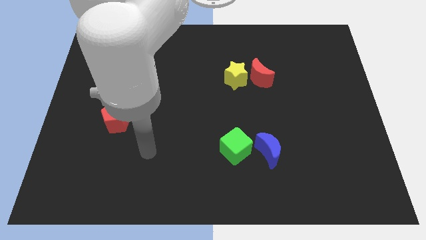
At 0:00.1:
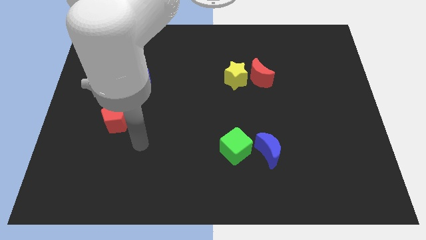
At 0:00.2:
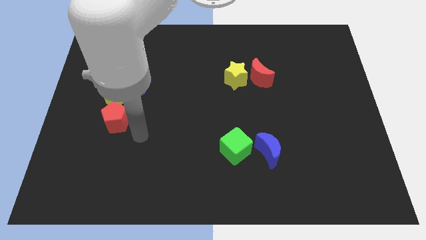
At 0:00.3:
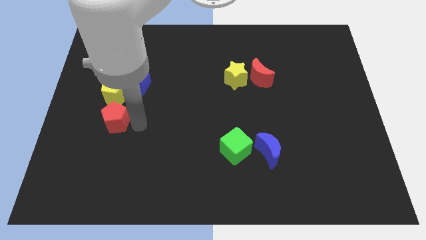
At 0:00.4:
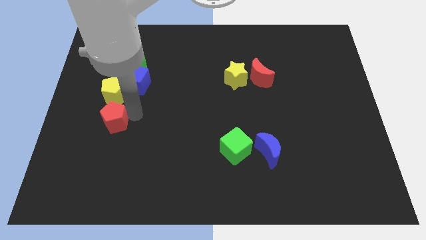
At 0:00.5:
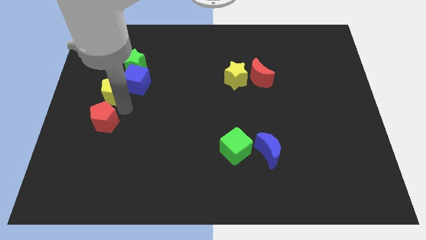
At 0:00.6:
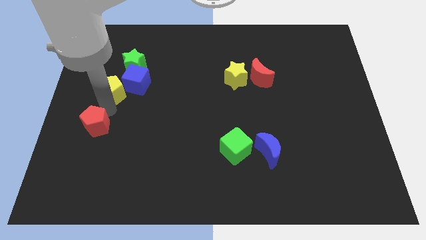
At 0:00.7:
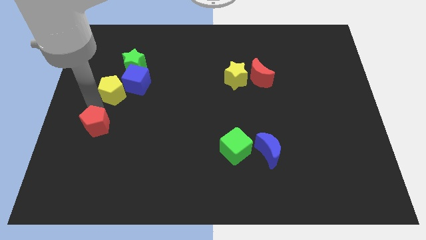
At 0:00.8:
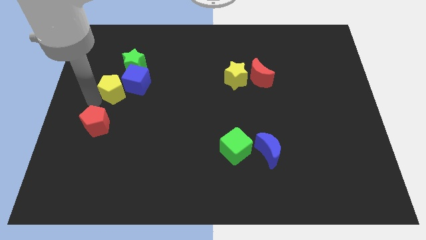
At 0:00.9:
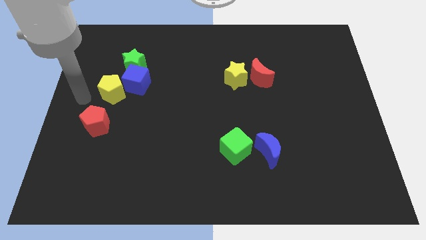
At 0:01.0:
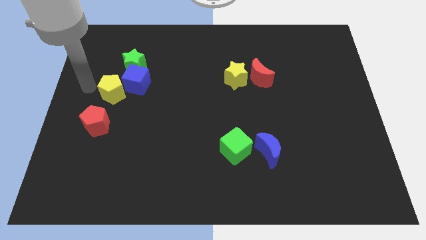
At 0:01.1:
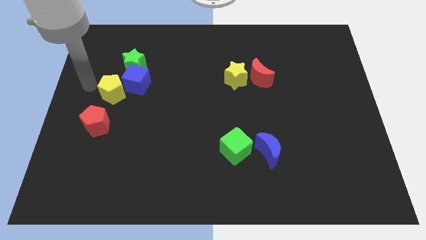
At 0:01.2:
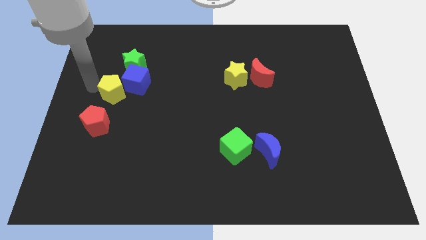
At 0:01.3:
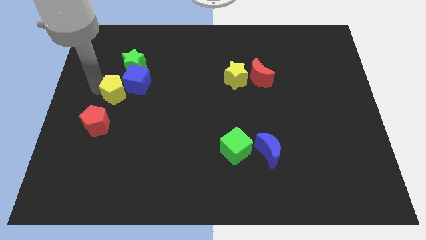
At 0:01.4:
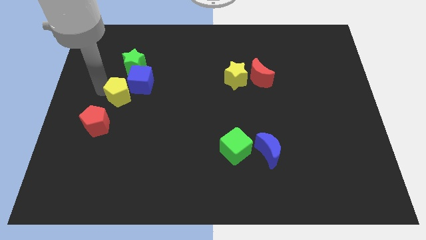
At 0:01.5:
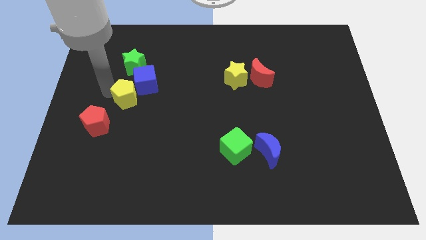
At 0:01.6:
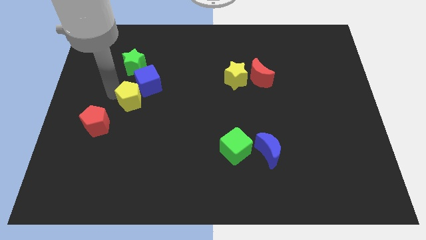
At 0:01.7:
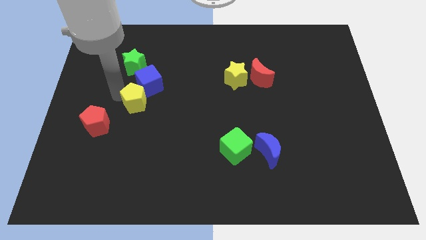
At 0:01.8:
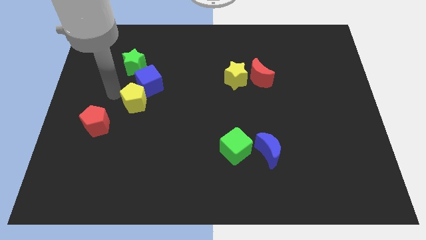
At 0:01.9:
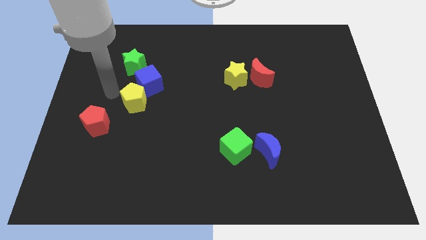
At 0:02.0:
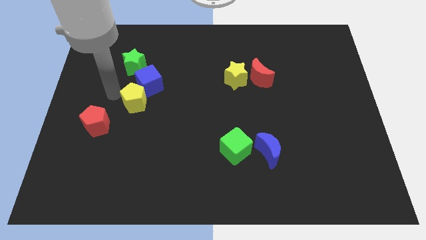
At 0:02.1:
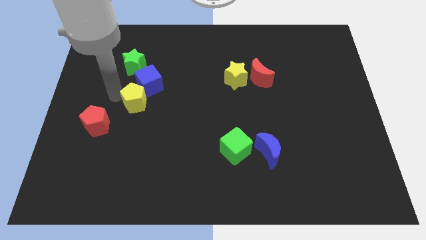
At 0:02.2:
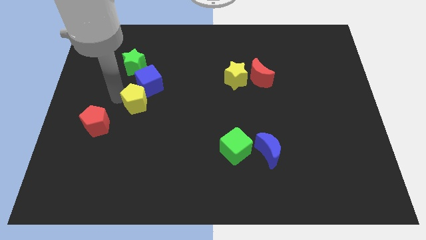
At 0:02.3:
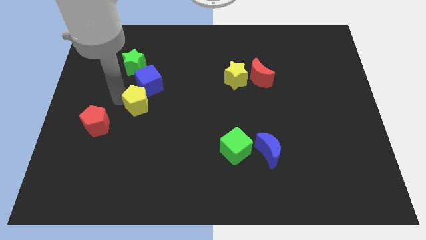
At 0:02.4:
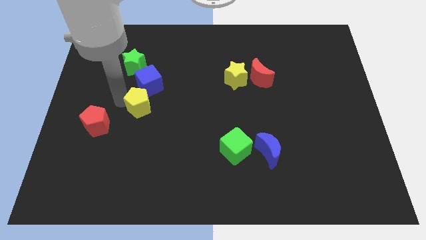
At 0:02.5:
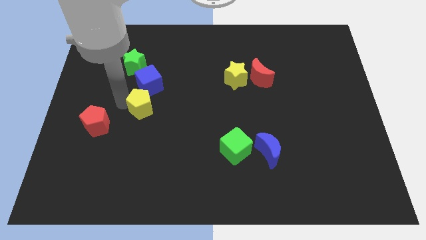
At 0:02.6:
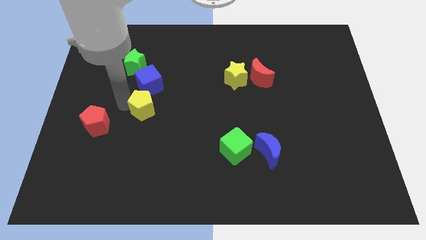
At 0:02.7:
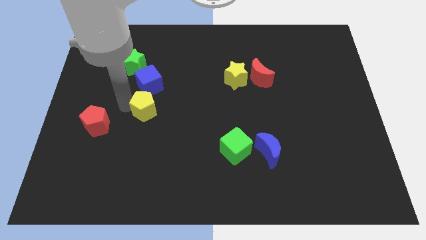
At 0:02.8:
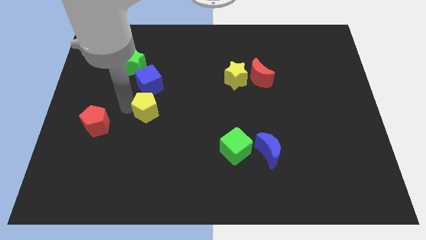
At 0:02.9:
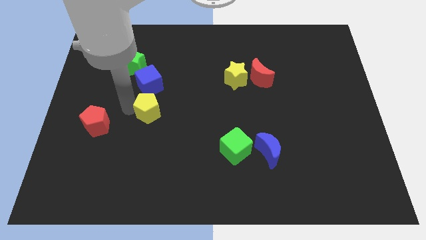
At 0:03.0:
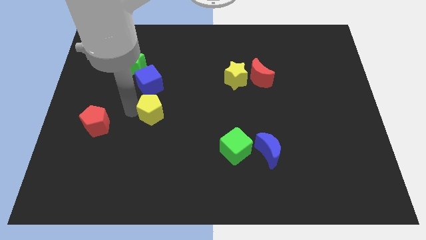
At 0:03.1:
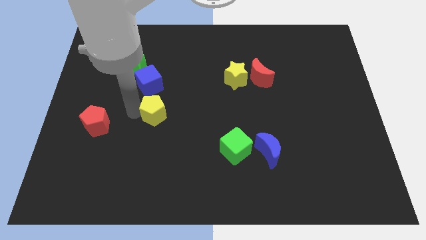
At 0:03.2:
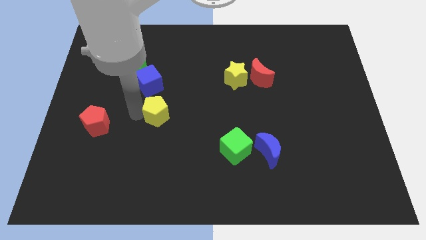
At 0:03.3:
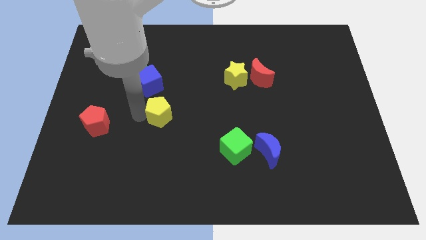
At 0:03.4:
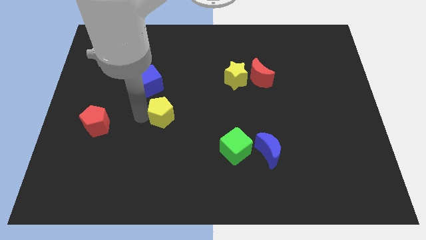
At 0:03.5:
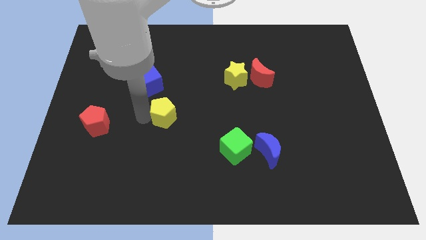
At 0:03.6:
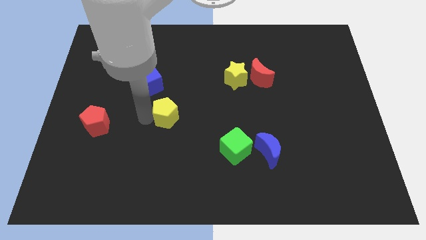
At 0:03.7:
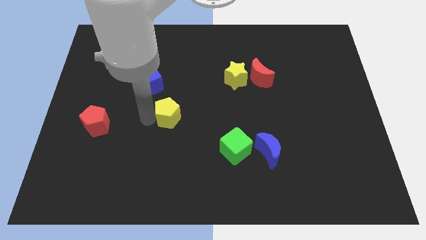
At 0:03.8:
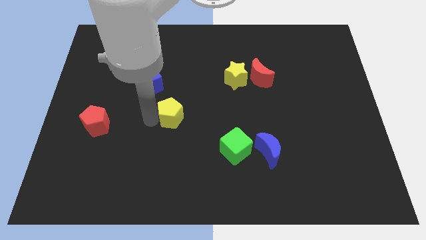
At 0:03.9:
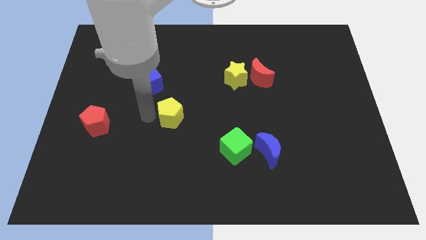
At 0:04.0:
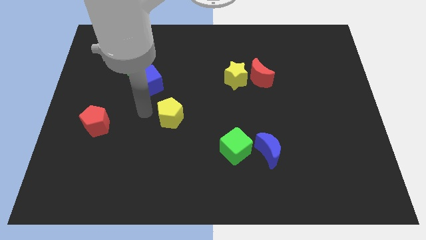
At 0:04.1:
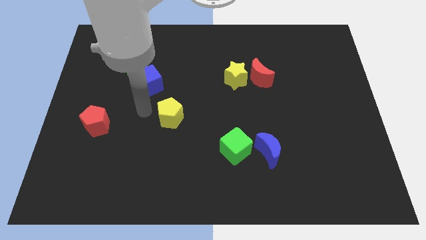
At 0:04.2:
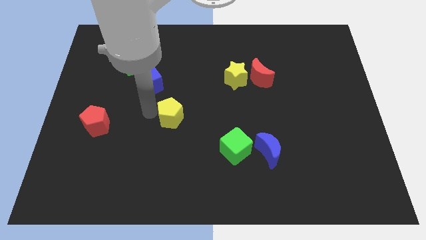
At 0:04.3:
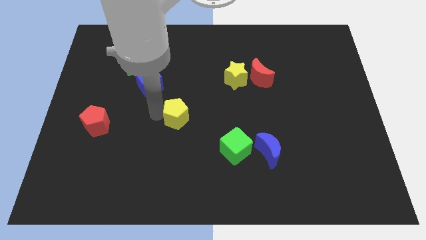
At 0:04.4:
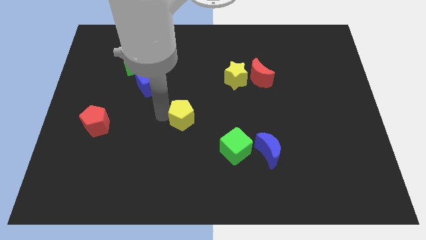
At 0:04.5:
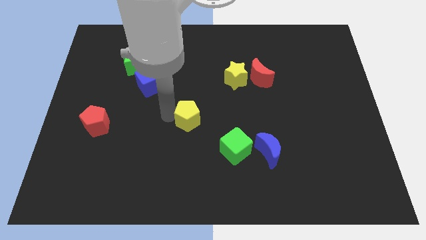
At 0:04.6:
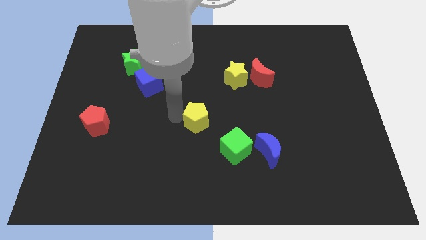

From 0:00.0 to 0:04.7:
slide the yellow pentagon diagonally up and to the left of the green cube

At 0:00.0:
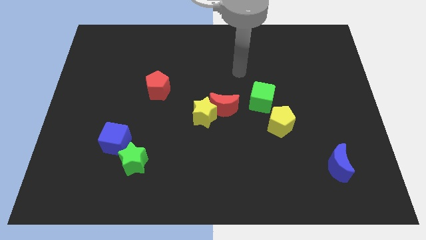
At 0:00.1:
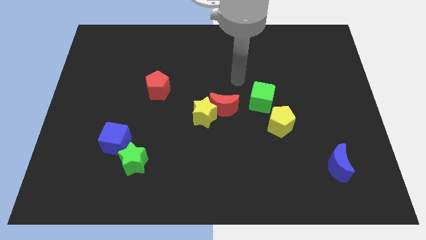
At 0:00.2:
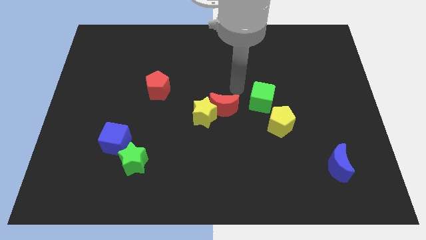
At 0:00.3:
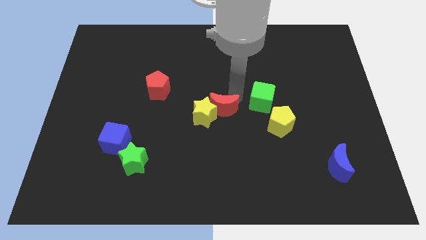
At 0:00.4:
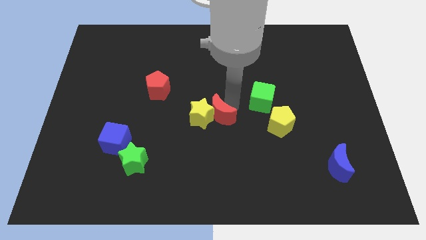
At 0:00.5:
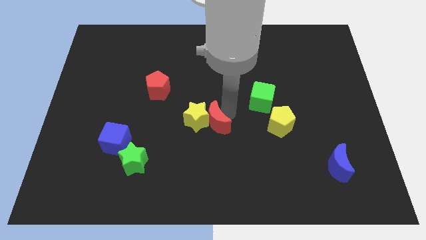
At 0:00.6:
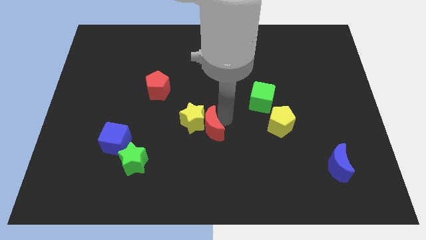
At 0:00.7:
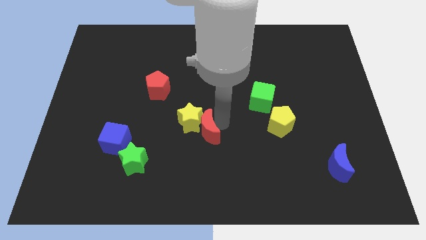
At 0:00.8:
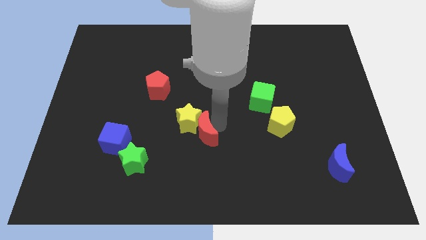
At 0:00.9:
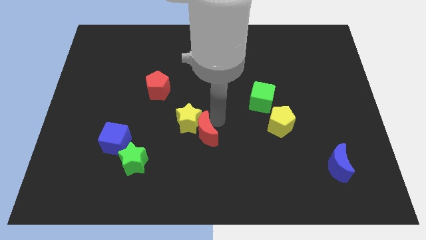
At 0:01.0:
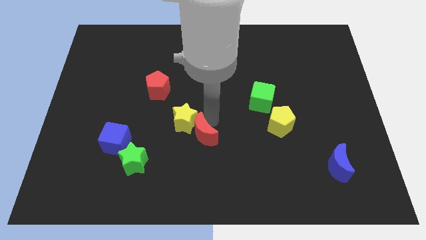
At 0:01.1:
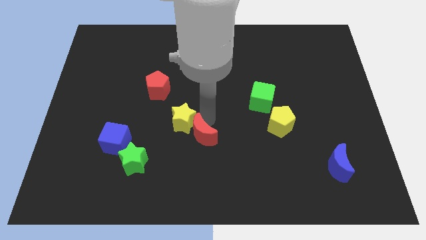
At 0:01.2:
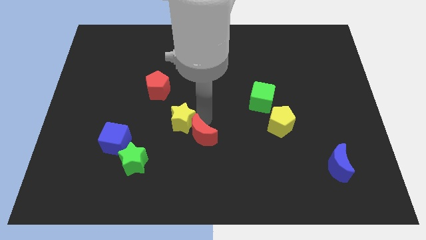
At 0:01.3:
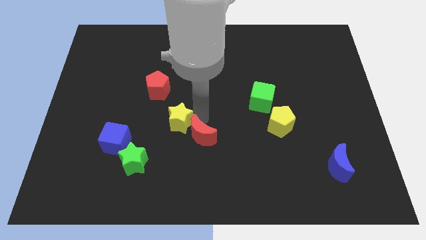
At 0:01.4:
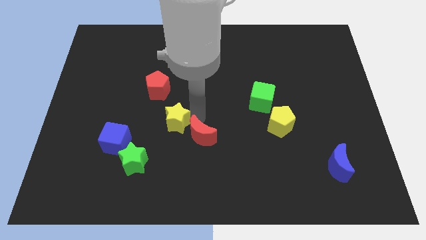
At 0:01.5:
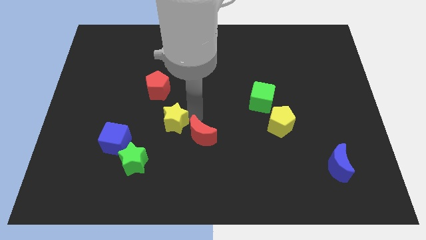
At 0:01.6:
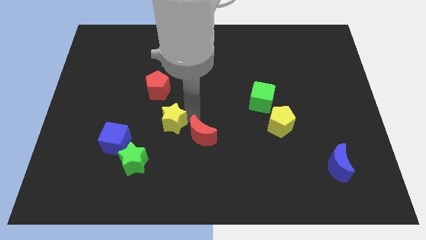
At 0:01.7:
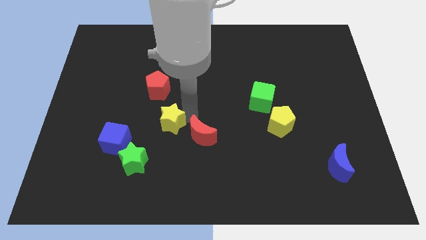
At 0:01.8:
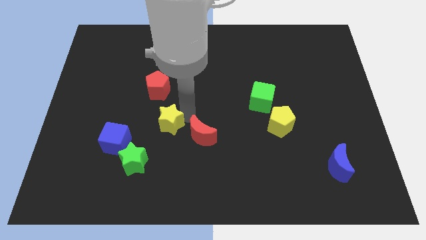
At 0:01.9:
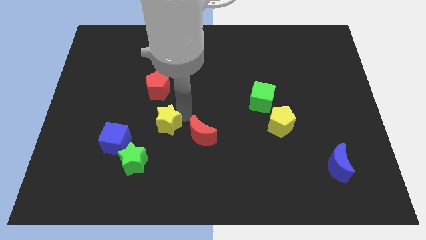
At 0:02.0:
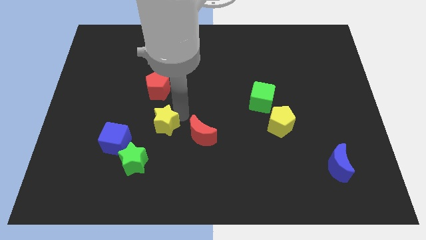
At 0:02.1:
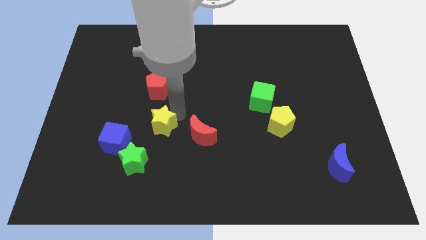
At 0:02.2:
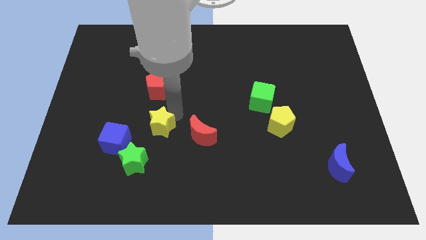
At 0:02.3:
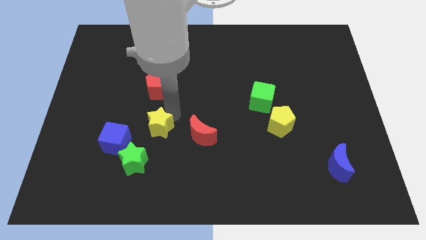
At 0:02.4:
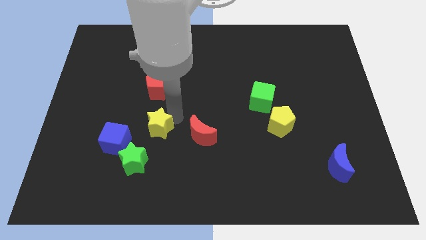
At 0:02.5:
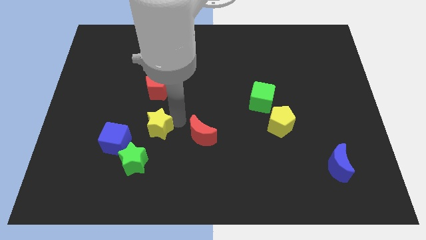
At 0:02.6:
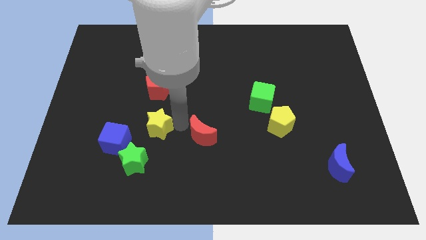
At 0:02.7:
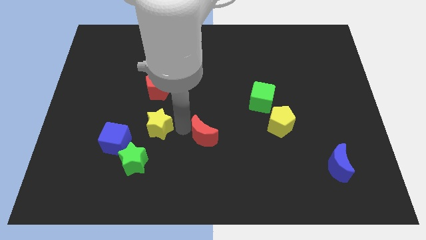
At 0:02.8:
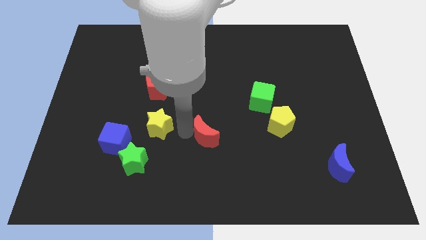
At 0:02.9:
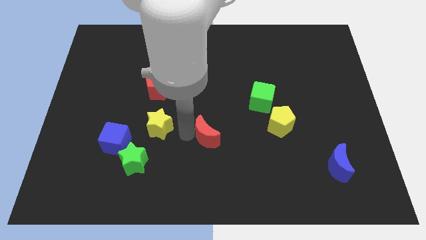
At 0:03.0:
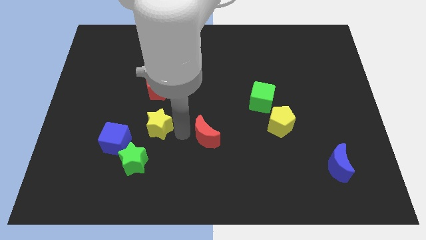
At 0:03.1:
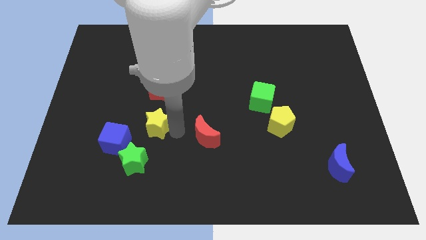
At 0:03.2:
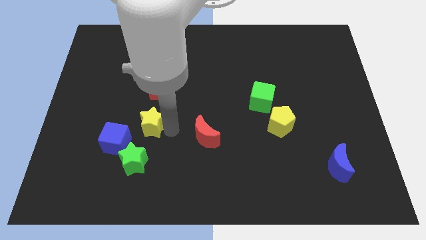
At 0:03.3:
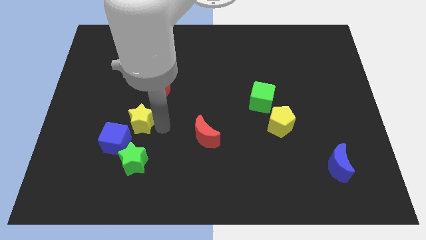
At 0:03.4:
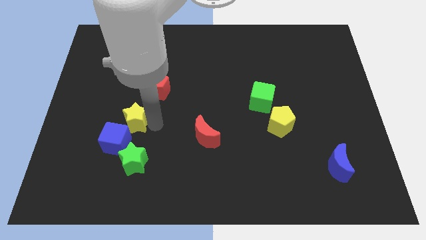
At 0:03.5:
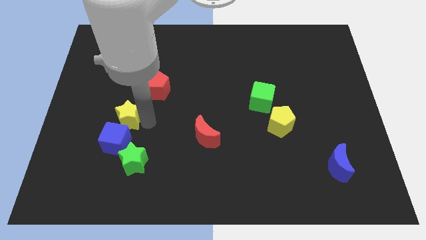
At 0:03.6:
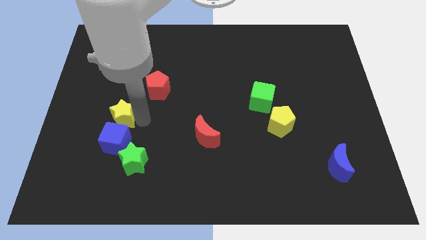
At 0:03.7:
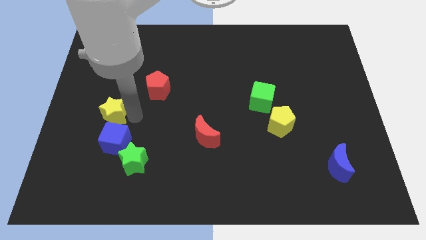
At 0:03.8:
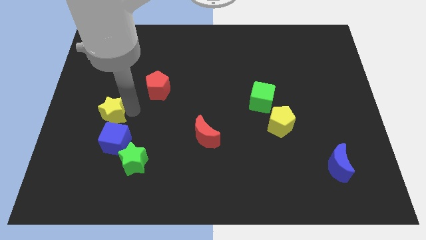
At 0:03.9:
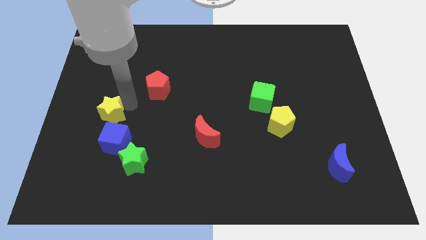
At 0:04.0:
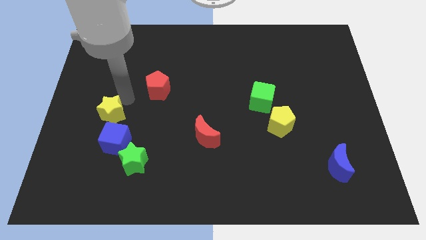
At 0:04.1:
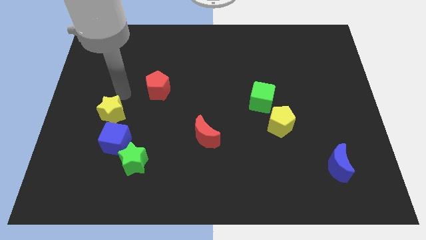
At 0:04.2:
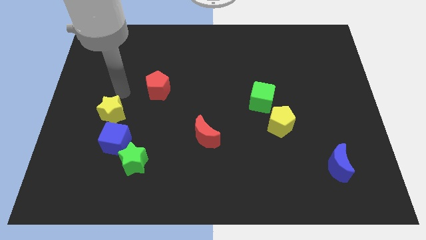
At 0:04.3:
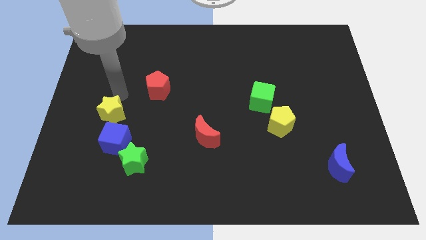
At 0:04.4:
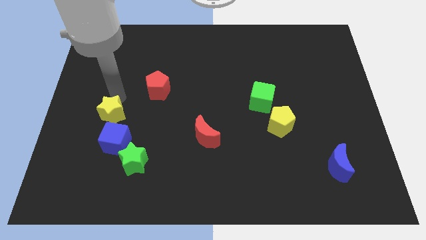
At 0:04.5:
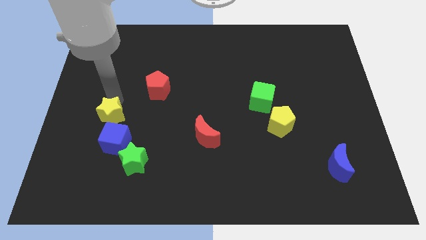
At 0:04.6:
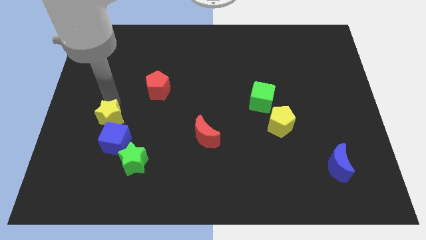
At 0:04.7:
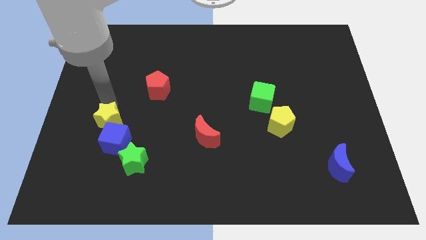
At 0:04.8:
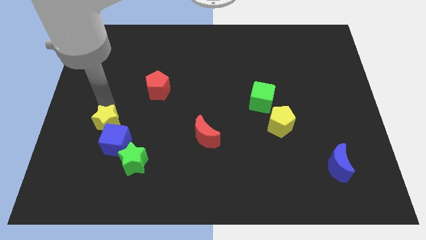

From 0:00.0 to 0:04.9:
slide the yellow star to the top left side of the green star
